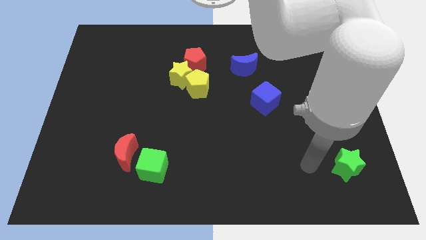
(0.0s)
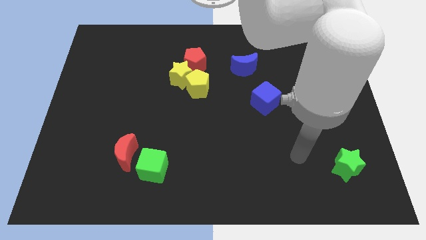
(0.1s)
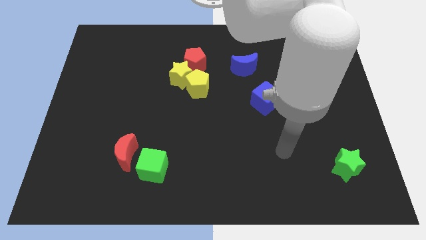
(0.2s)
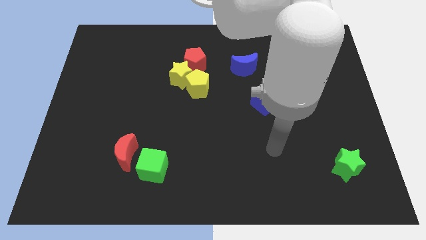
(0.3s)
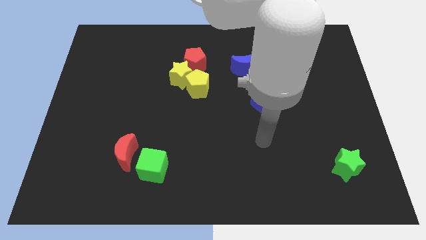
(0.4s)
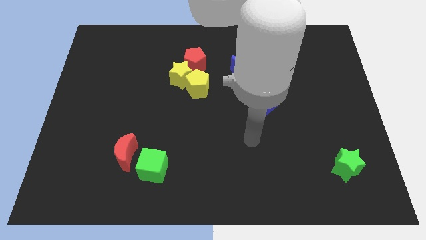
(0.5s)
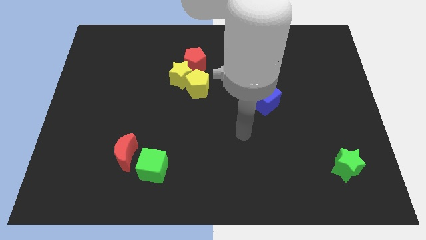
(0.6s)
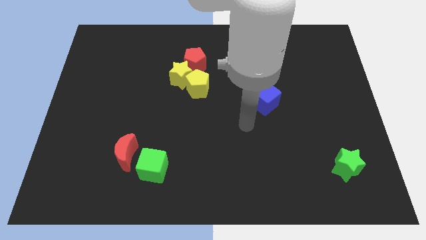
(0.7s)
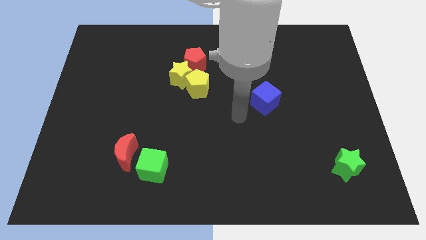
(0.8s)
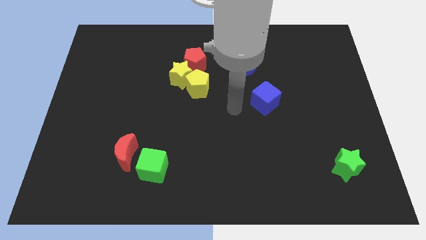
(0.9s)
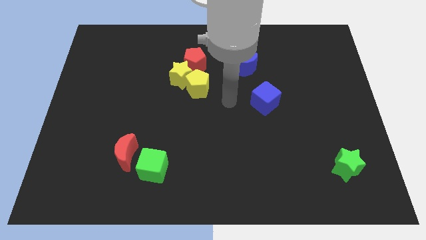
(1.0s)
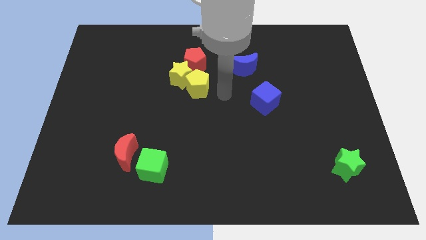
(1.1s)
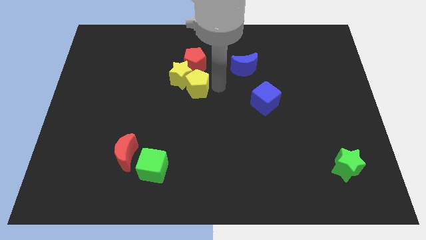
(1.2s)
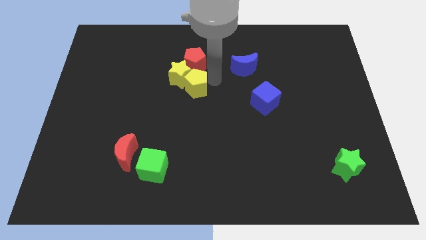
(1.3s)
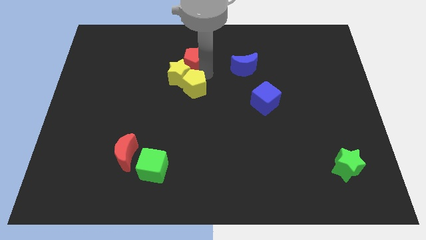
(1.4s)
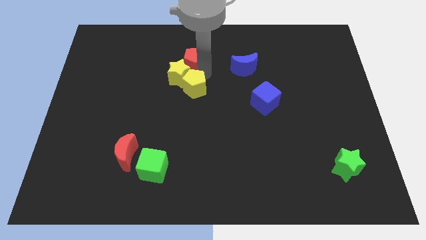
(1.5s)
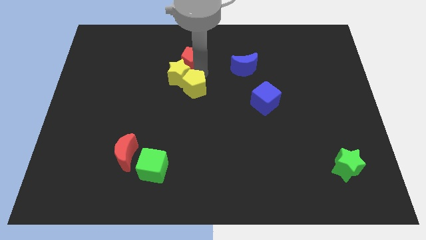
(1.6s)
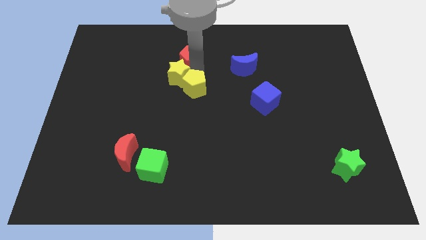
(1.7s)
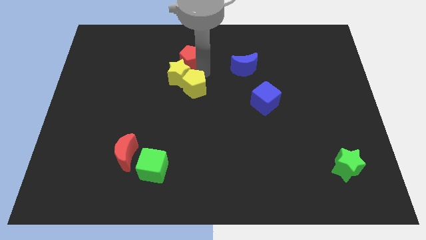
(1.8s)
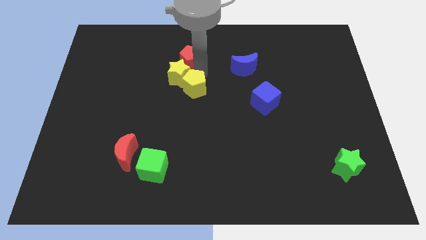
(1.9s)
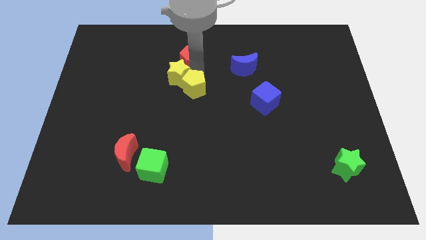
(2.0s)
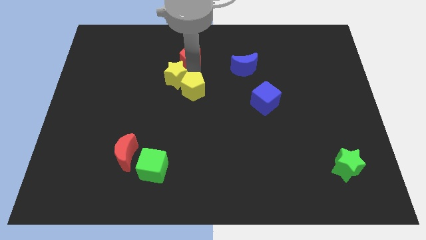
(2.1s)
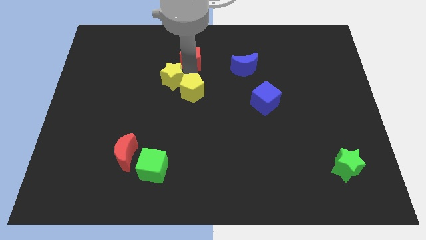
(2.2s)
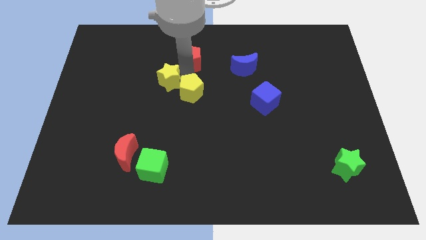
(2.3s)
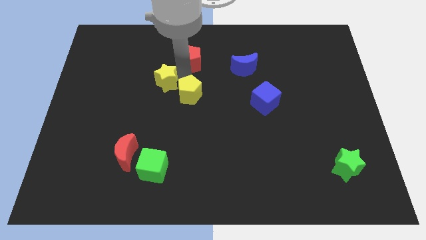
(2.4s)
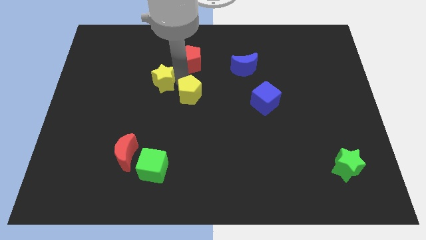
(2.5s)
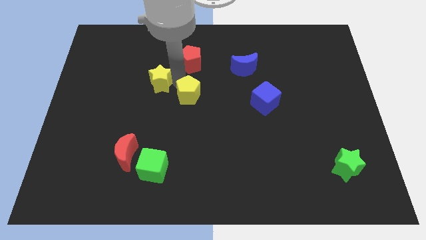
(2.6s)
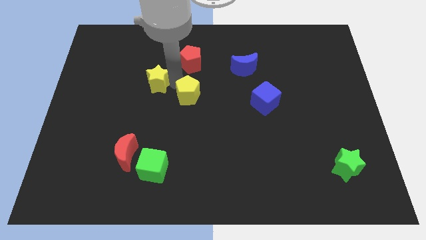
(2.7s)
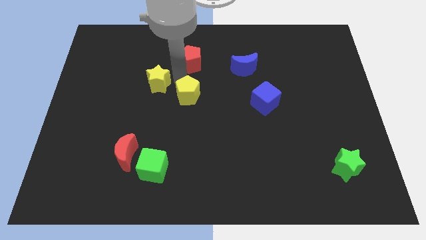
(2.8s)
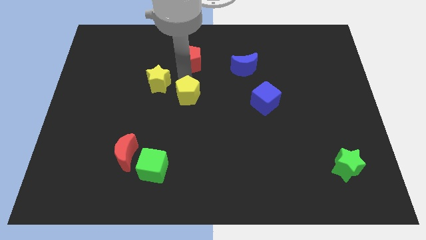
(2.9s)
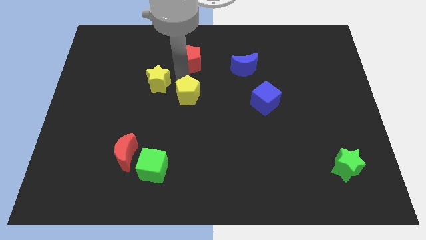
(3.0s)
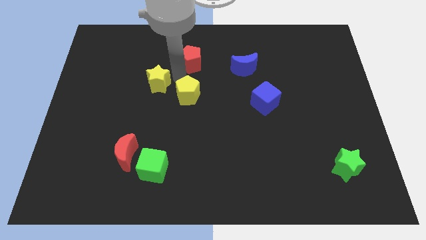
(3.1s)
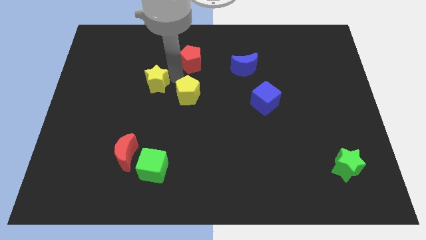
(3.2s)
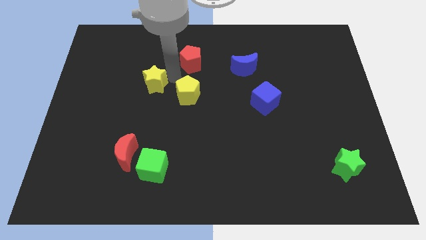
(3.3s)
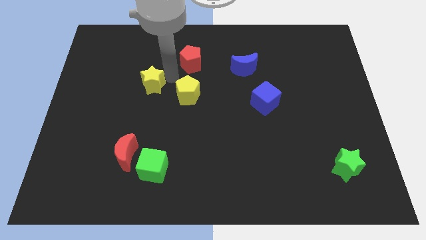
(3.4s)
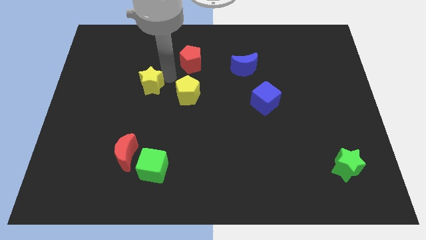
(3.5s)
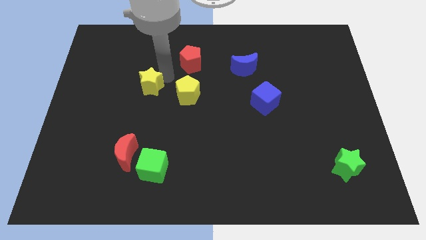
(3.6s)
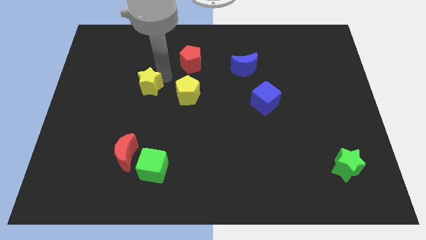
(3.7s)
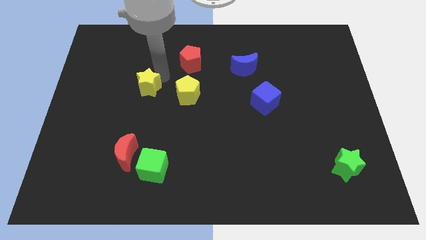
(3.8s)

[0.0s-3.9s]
separate the yellow star from the yellow pentagon and red pentagon

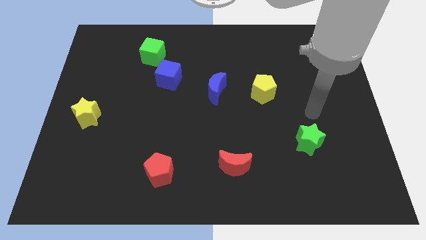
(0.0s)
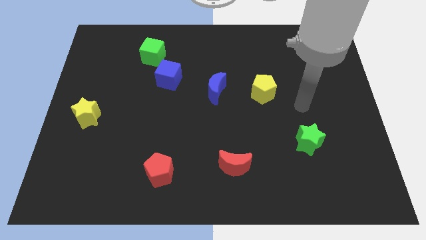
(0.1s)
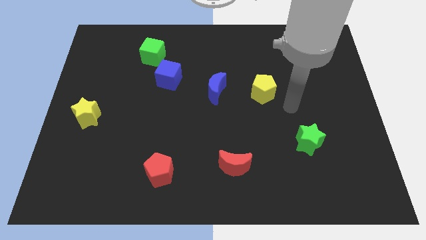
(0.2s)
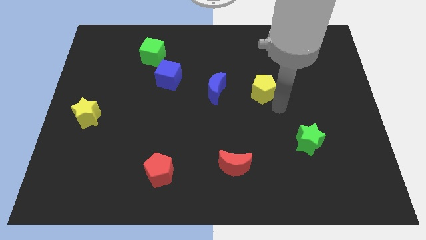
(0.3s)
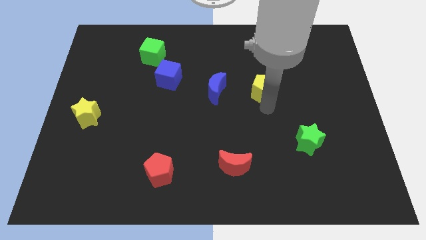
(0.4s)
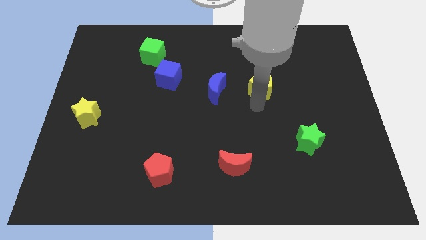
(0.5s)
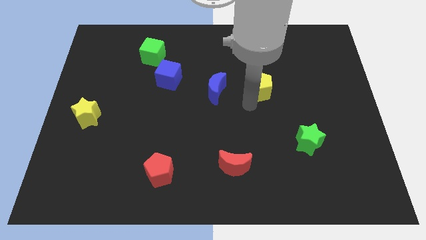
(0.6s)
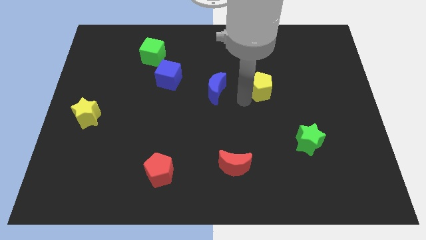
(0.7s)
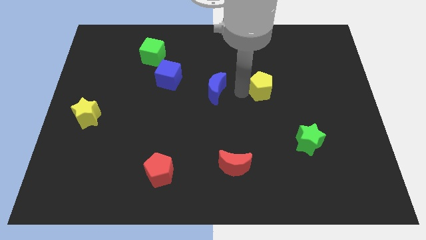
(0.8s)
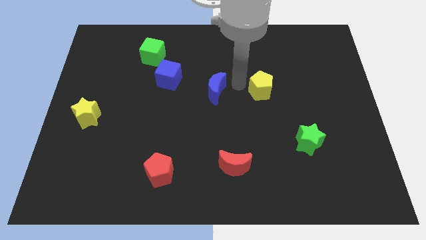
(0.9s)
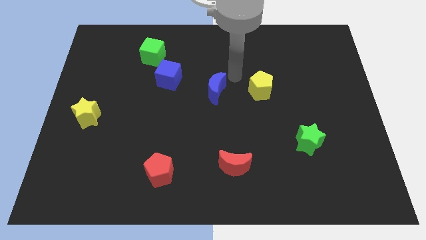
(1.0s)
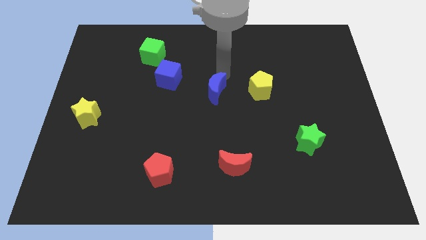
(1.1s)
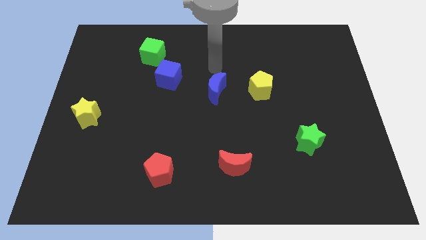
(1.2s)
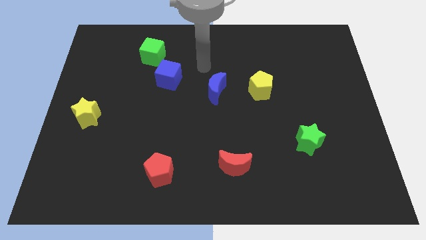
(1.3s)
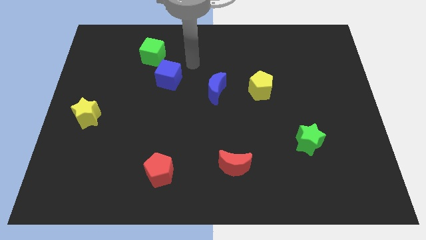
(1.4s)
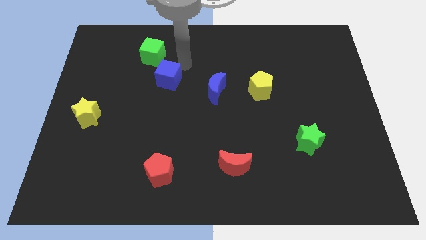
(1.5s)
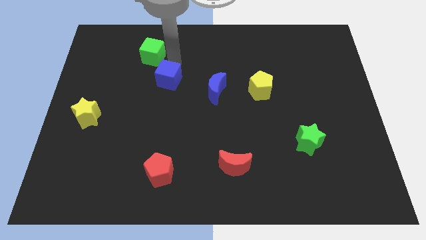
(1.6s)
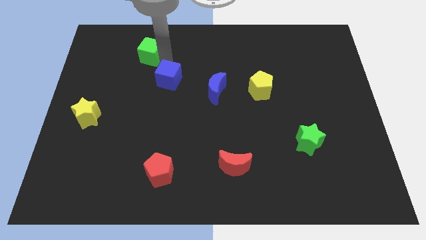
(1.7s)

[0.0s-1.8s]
pull the blue cube apart from the green cube

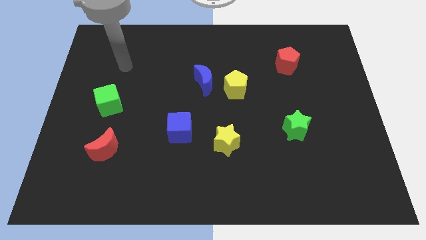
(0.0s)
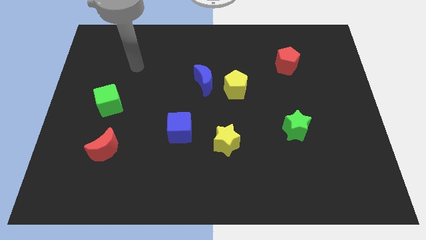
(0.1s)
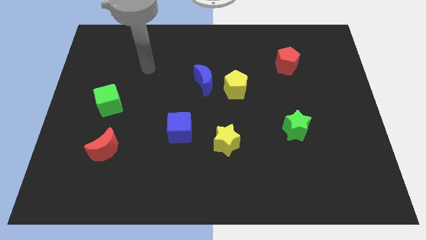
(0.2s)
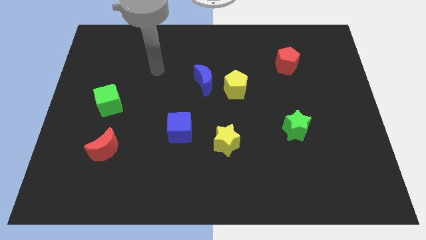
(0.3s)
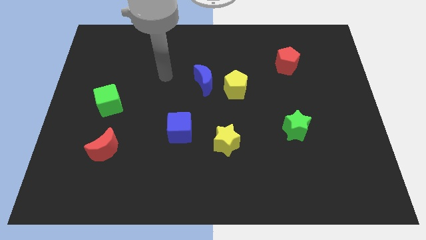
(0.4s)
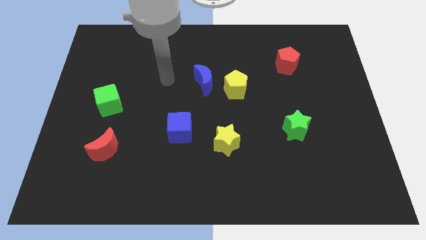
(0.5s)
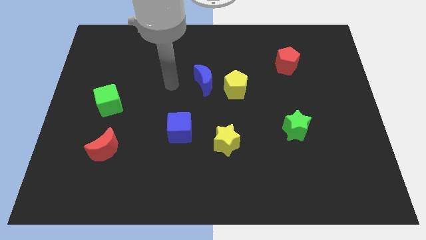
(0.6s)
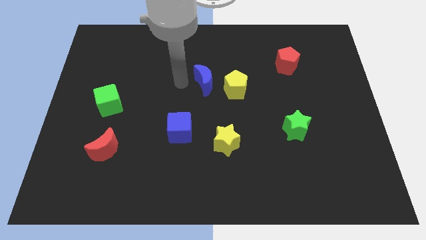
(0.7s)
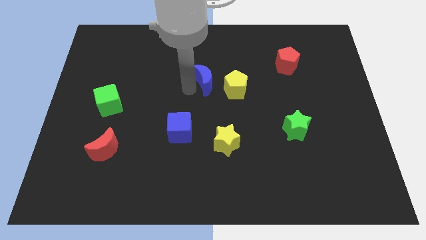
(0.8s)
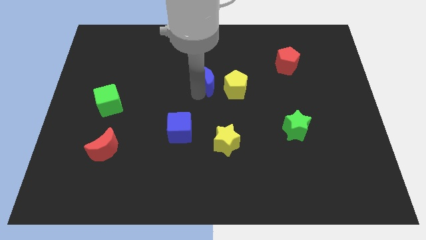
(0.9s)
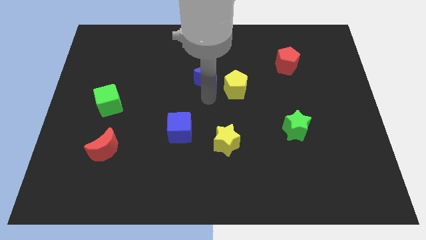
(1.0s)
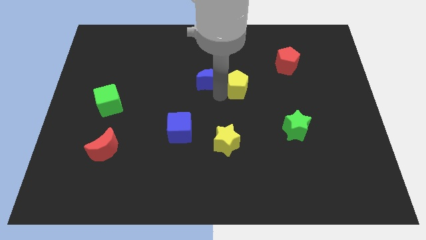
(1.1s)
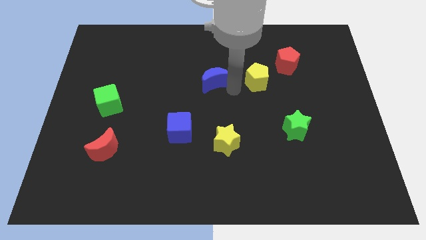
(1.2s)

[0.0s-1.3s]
move the blue moon away from the yellow pentagon

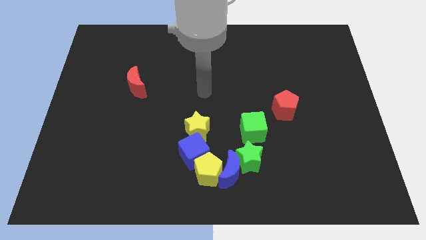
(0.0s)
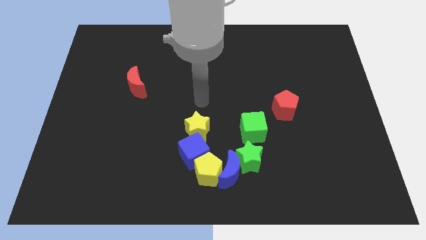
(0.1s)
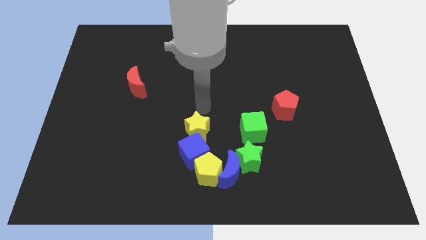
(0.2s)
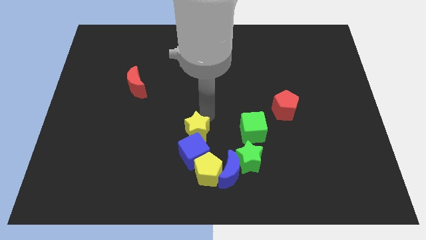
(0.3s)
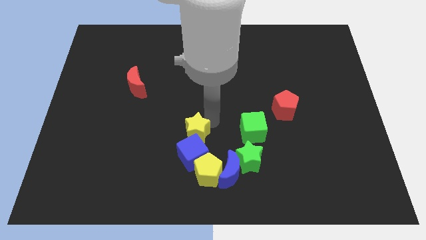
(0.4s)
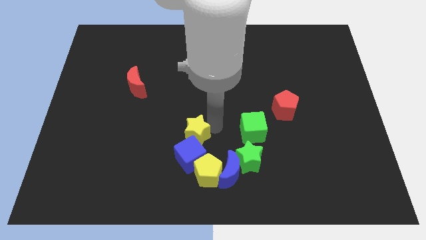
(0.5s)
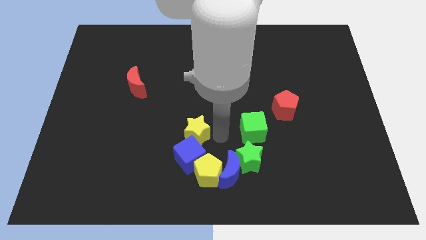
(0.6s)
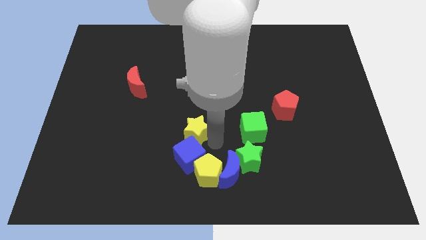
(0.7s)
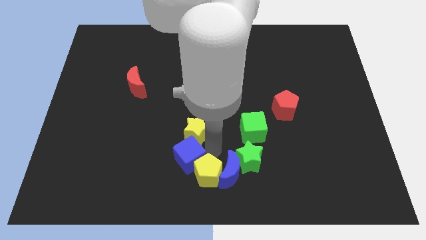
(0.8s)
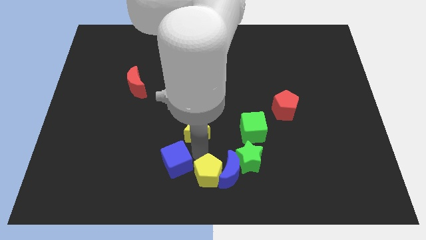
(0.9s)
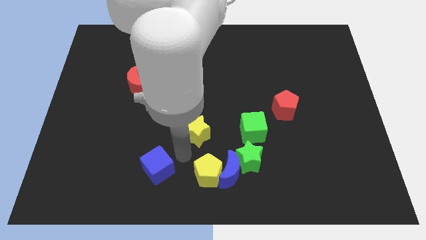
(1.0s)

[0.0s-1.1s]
move the yellow star away from the blue cube

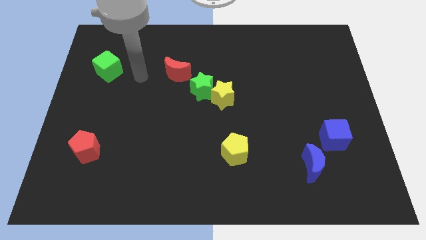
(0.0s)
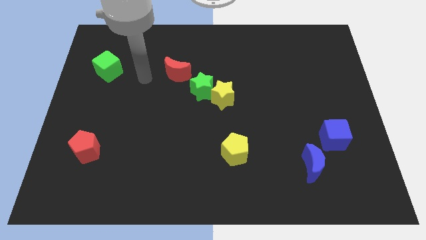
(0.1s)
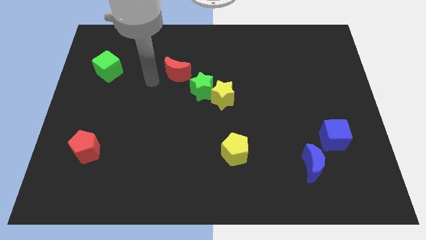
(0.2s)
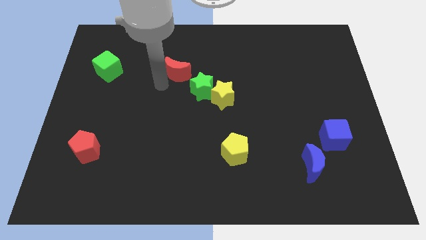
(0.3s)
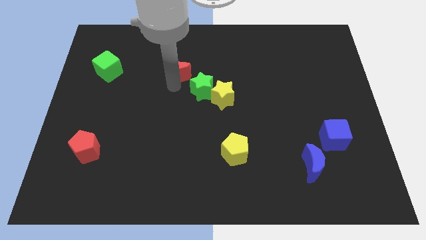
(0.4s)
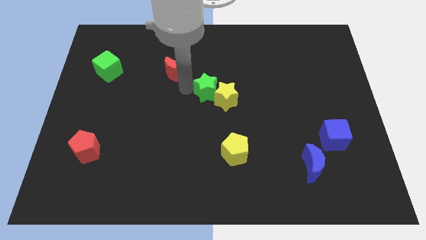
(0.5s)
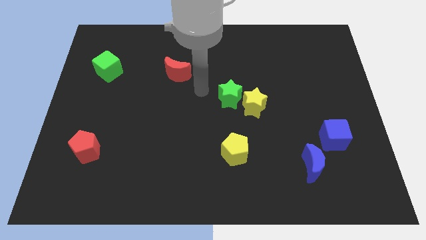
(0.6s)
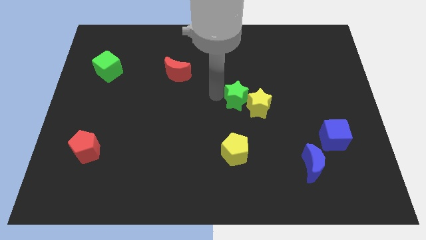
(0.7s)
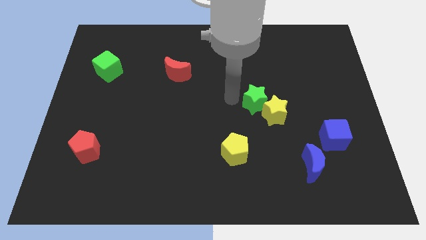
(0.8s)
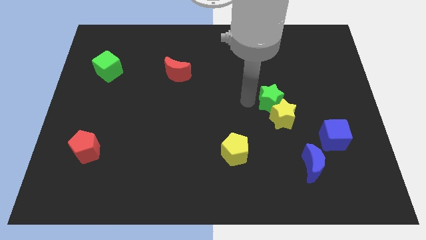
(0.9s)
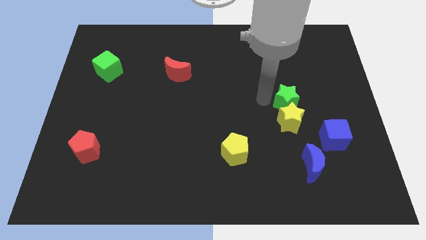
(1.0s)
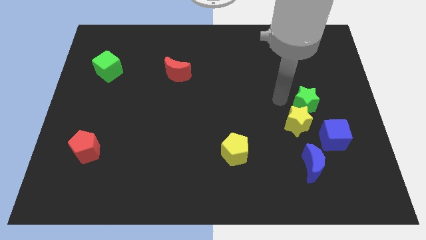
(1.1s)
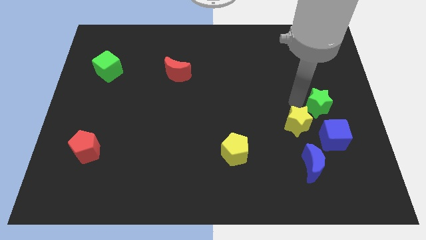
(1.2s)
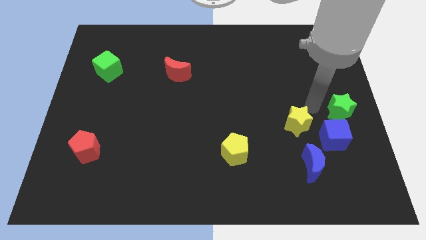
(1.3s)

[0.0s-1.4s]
separate the yellow star from the green star
